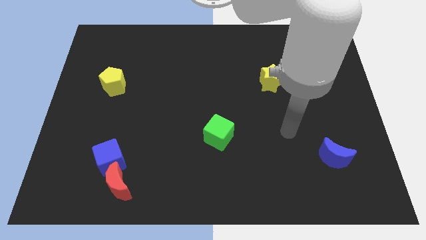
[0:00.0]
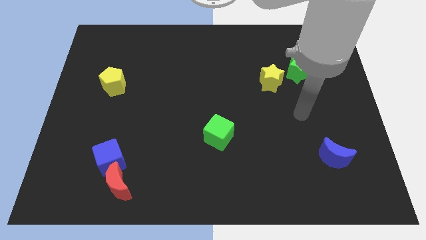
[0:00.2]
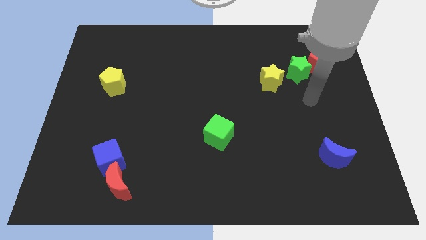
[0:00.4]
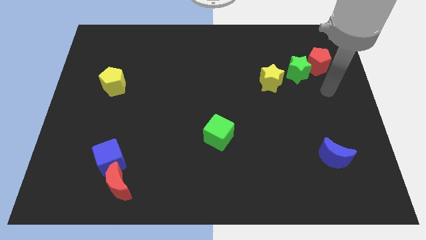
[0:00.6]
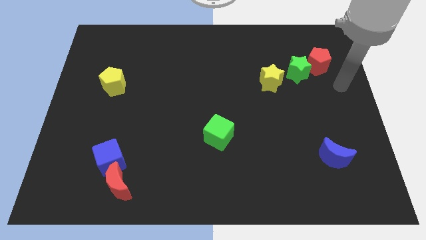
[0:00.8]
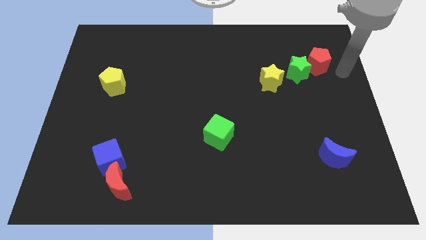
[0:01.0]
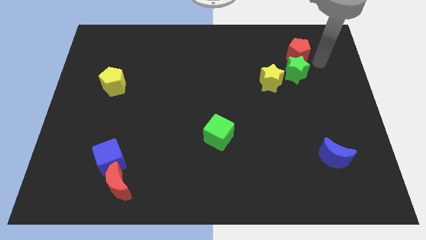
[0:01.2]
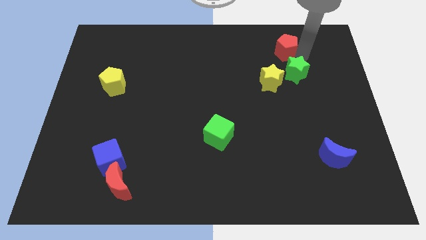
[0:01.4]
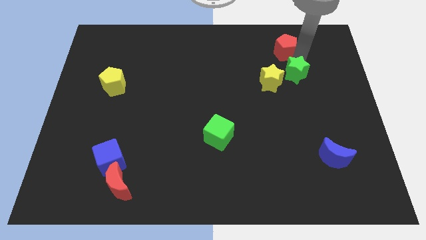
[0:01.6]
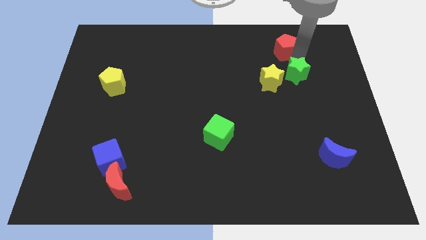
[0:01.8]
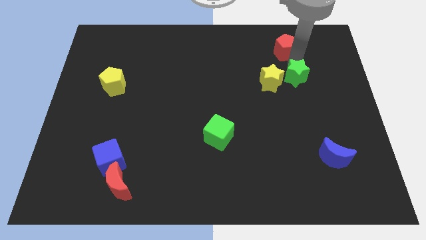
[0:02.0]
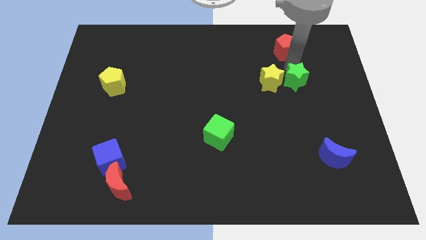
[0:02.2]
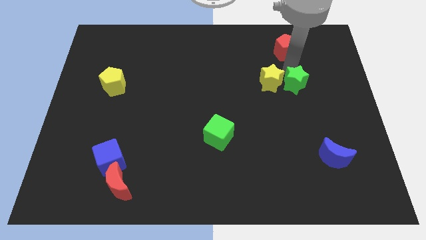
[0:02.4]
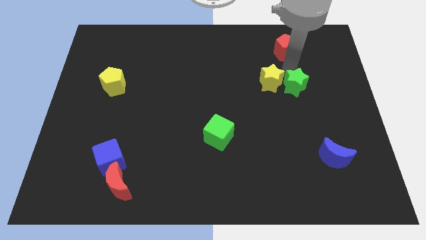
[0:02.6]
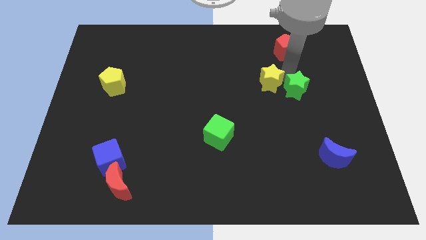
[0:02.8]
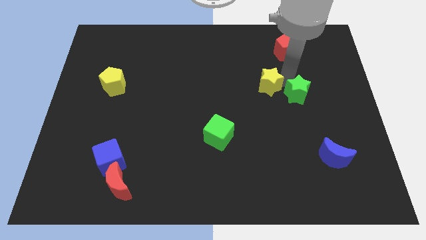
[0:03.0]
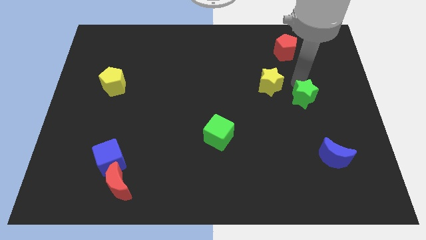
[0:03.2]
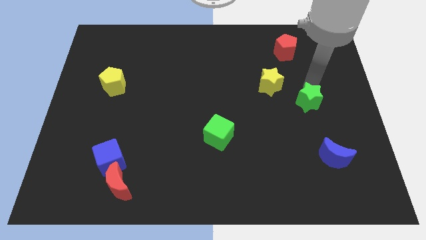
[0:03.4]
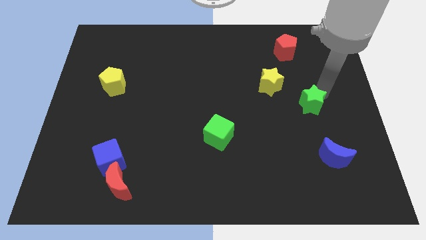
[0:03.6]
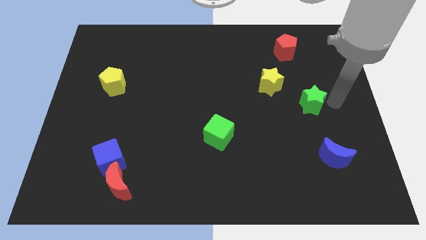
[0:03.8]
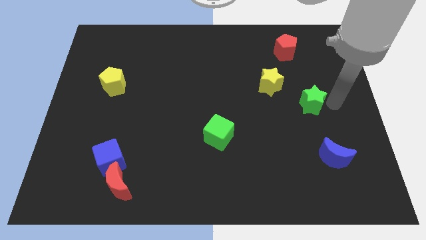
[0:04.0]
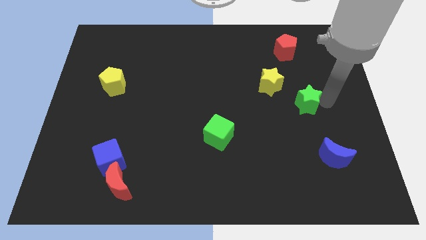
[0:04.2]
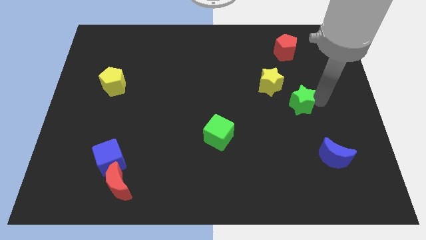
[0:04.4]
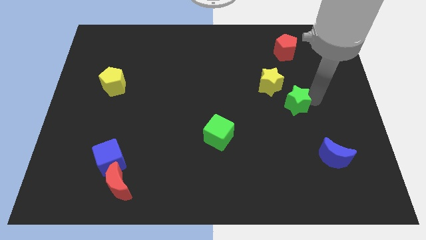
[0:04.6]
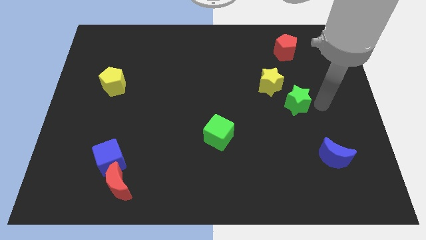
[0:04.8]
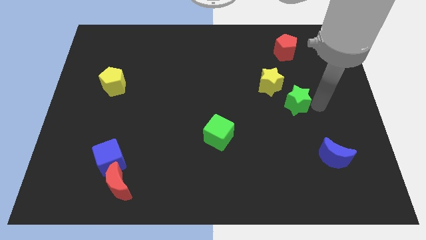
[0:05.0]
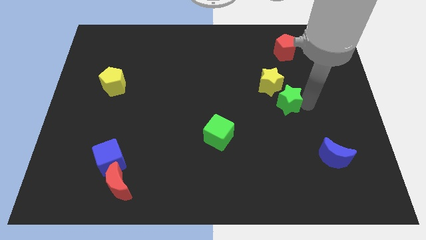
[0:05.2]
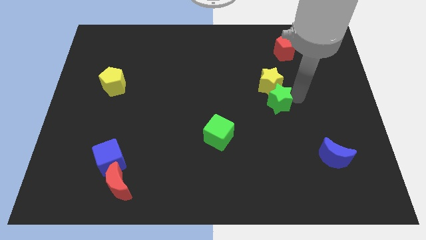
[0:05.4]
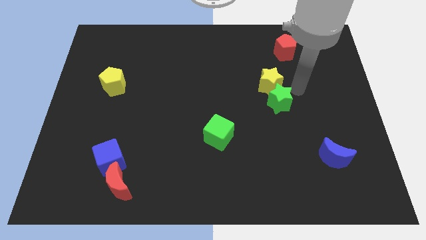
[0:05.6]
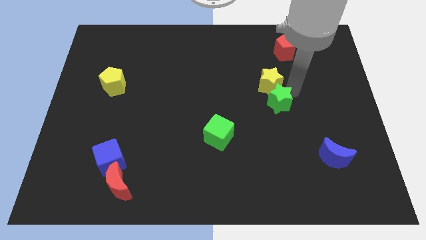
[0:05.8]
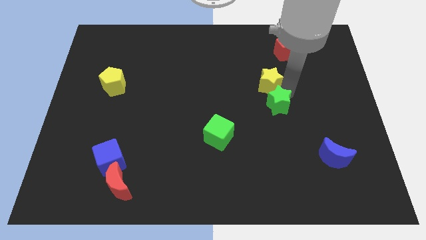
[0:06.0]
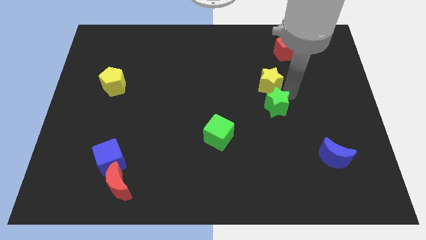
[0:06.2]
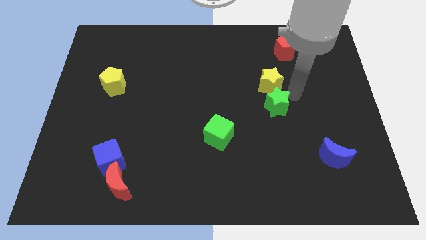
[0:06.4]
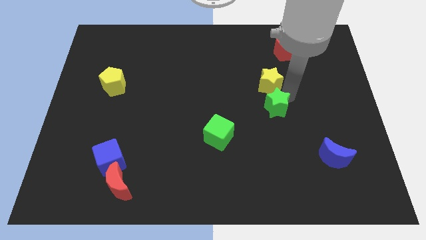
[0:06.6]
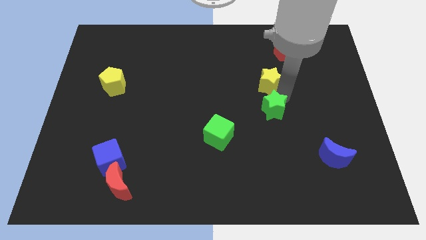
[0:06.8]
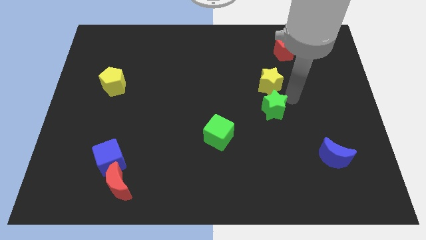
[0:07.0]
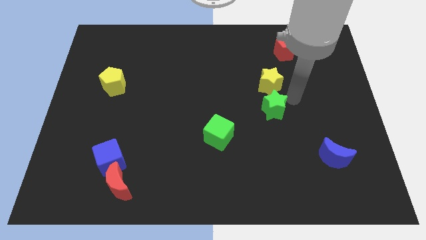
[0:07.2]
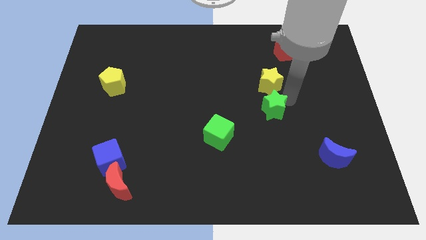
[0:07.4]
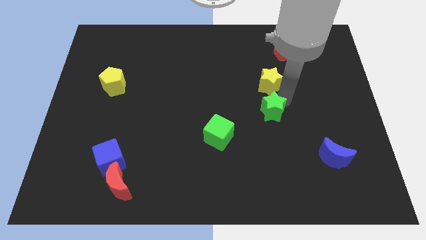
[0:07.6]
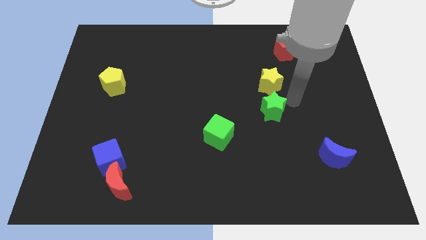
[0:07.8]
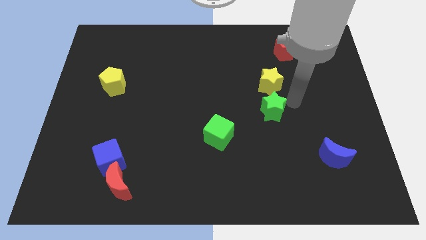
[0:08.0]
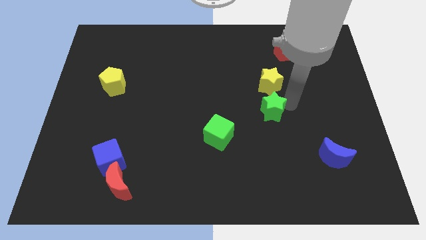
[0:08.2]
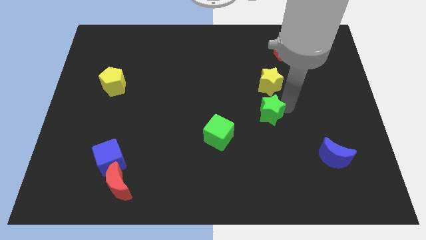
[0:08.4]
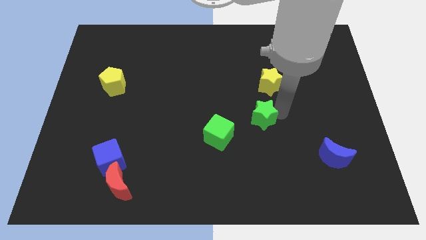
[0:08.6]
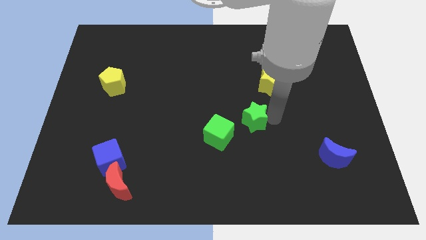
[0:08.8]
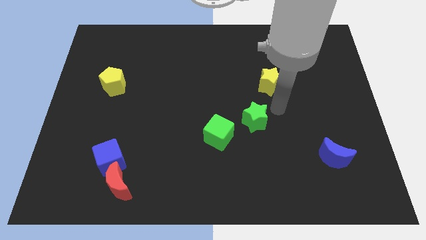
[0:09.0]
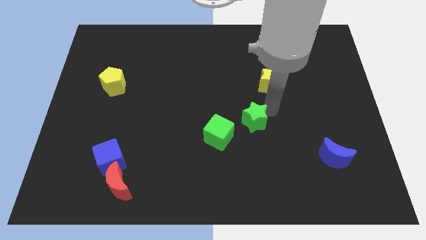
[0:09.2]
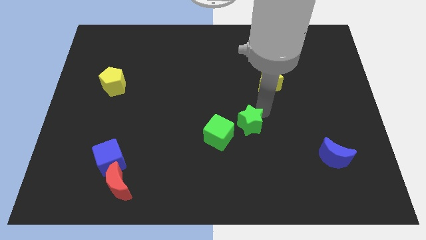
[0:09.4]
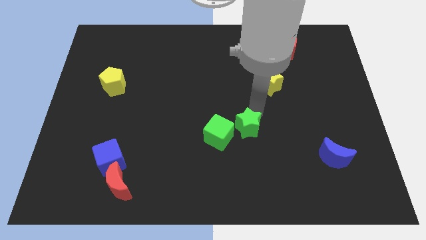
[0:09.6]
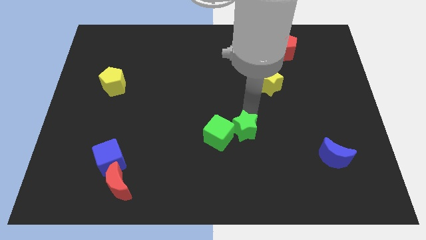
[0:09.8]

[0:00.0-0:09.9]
put the green star to the green cube

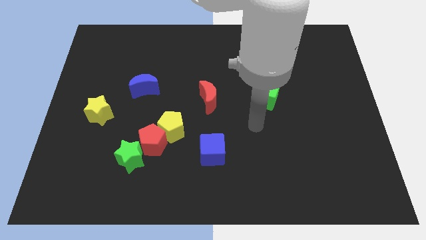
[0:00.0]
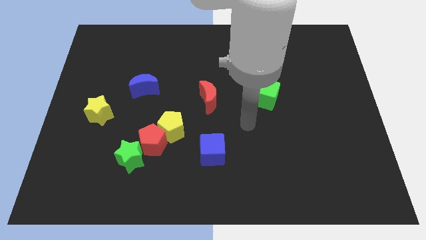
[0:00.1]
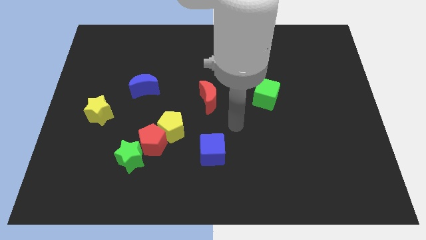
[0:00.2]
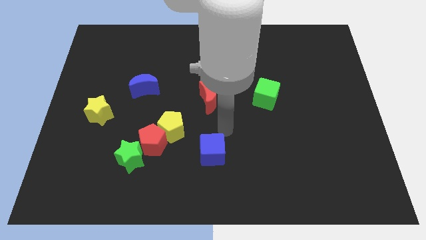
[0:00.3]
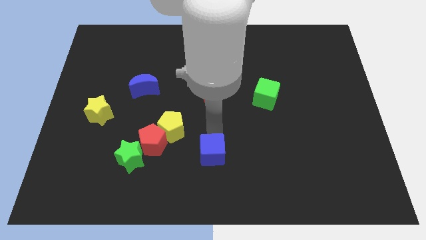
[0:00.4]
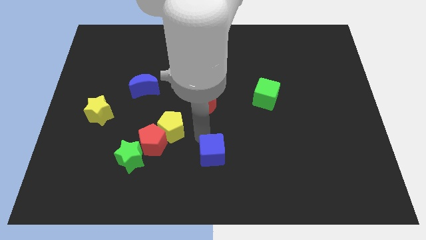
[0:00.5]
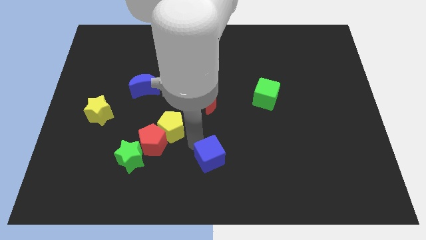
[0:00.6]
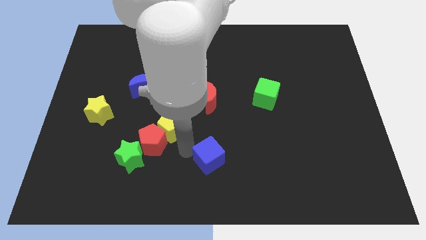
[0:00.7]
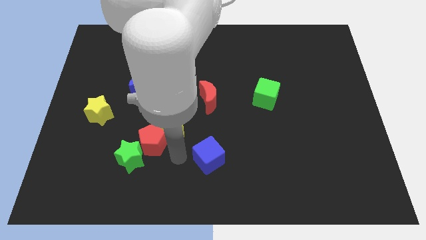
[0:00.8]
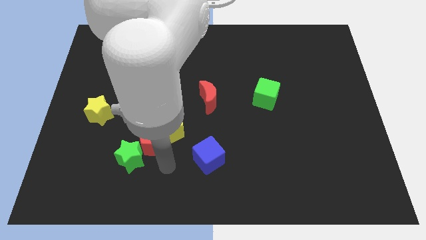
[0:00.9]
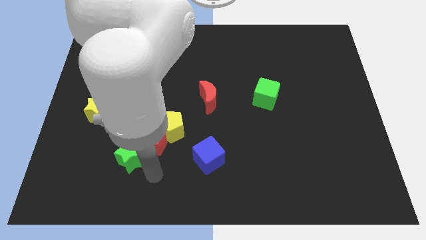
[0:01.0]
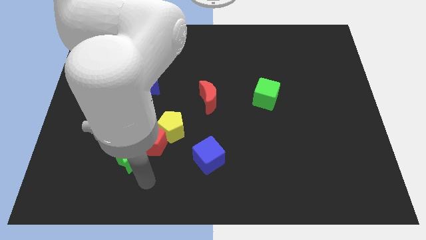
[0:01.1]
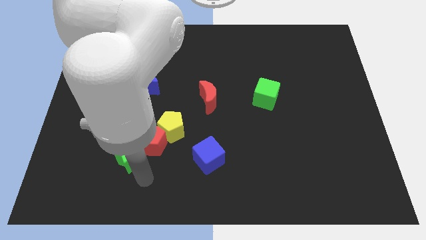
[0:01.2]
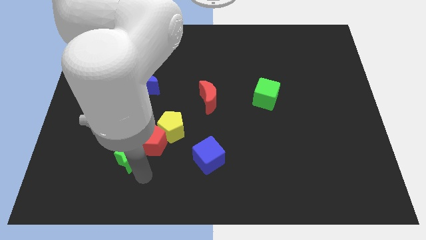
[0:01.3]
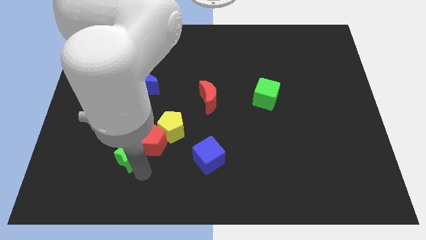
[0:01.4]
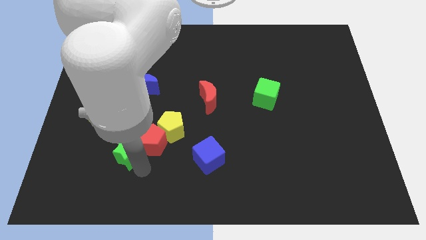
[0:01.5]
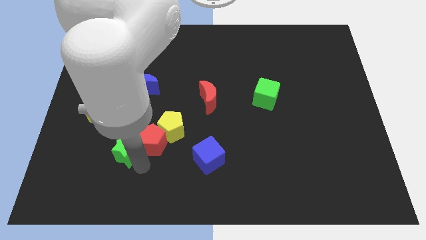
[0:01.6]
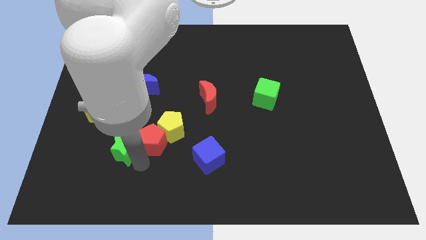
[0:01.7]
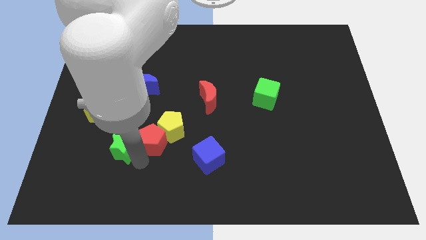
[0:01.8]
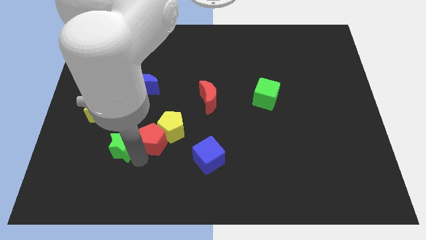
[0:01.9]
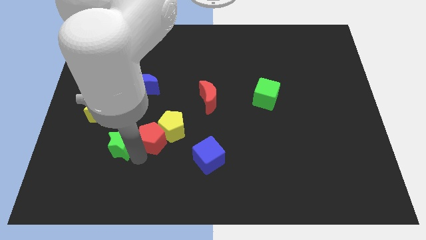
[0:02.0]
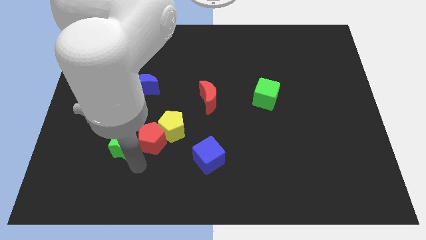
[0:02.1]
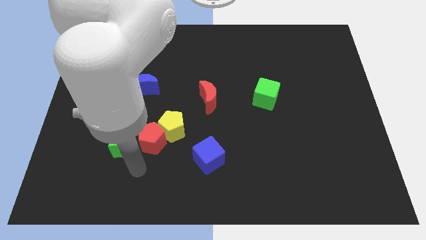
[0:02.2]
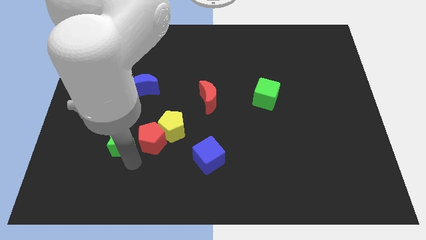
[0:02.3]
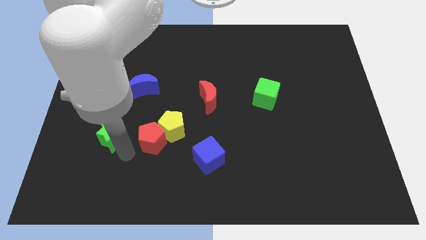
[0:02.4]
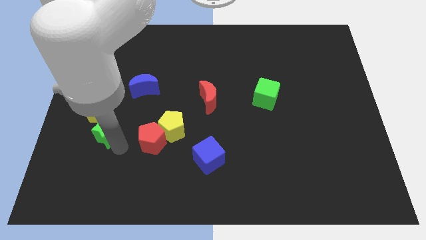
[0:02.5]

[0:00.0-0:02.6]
slide the green star close to the yellow star
